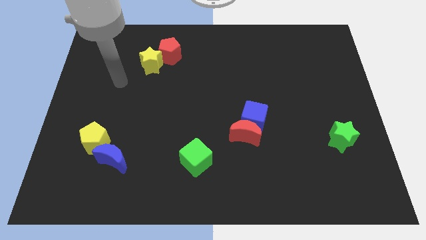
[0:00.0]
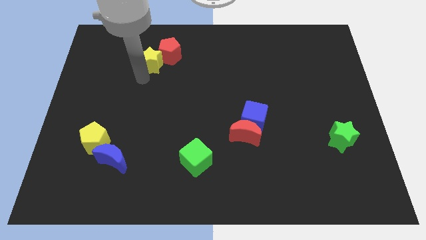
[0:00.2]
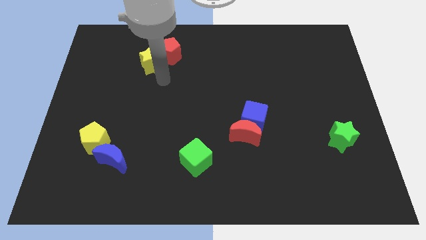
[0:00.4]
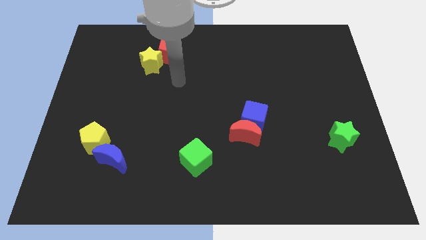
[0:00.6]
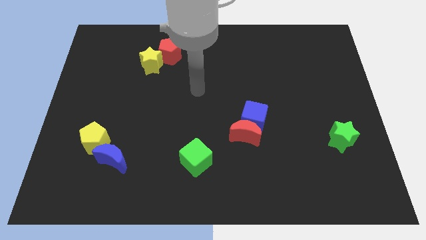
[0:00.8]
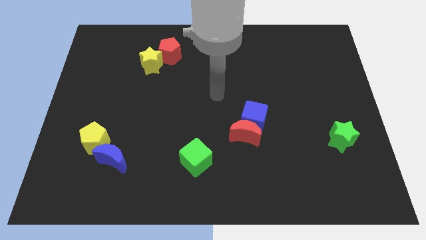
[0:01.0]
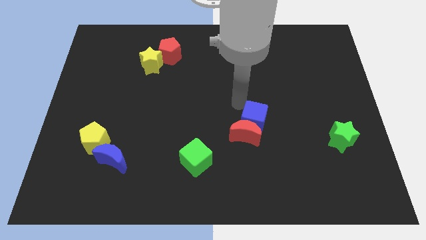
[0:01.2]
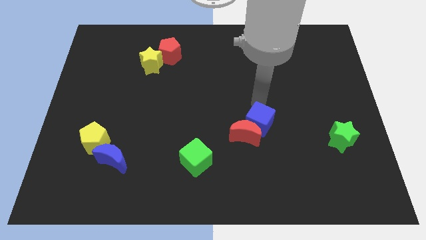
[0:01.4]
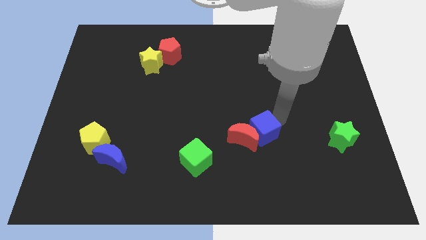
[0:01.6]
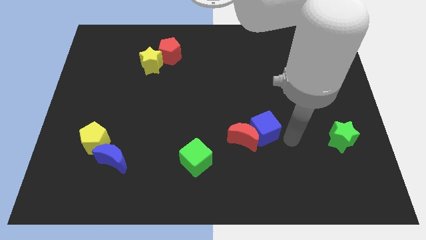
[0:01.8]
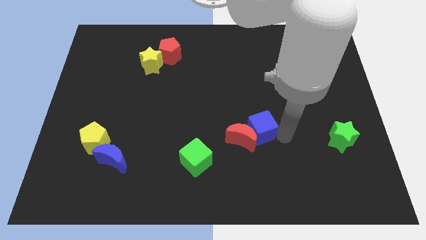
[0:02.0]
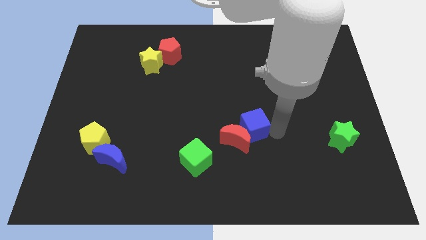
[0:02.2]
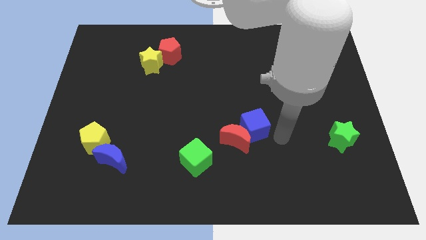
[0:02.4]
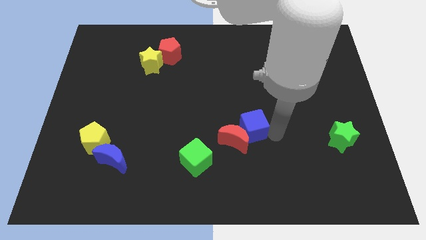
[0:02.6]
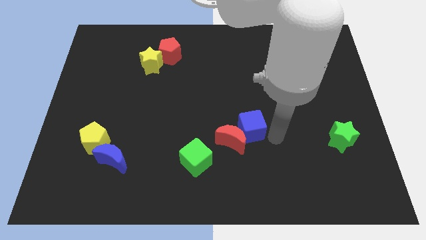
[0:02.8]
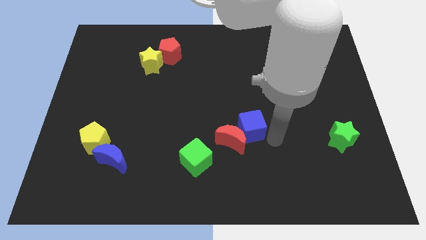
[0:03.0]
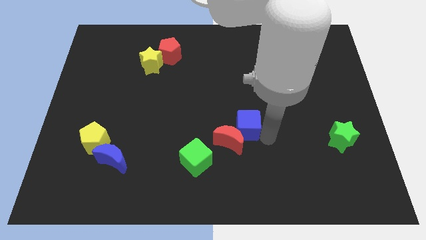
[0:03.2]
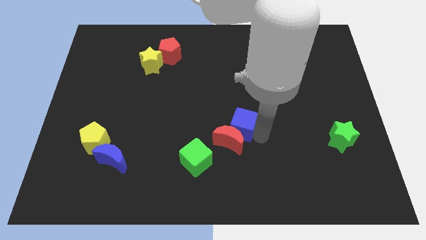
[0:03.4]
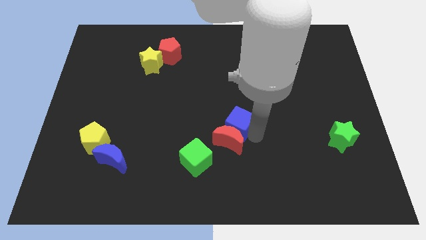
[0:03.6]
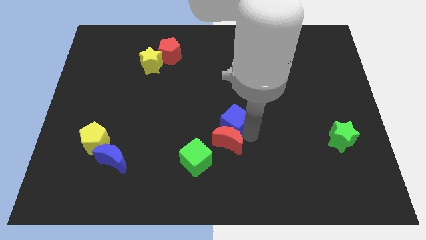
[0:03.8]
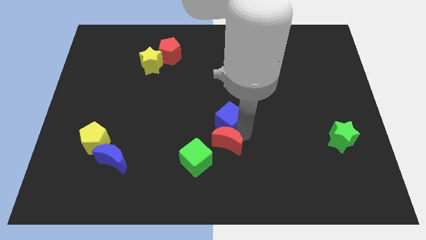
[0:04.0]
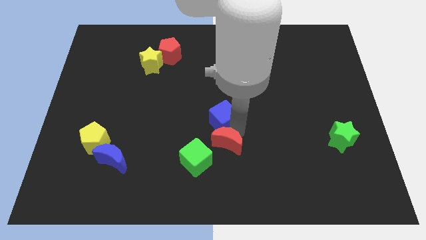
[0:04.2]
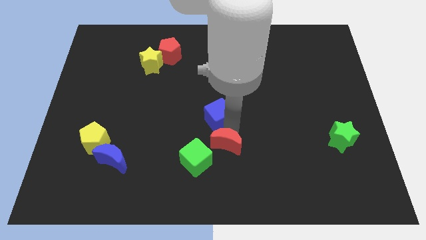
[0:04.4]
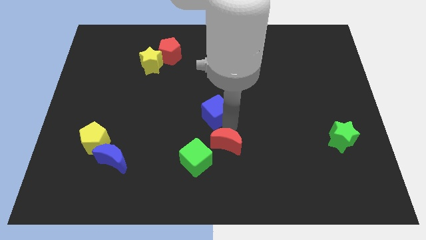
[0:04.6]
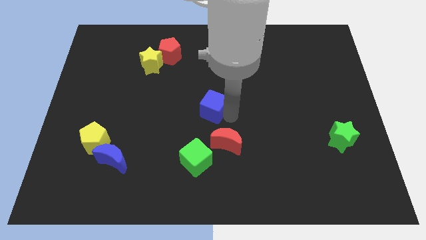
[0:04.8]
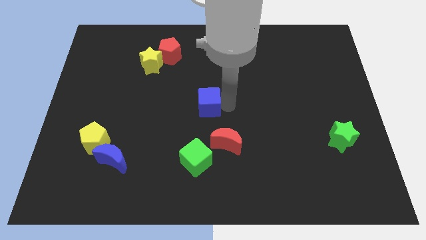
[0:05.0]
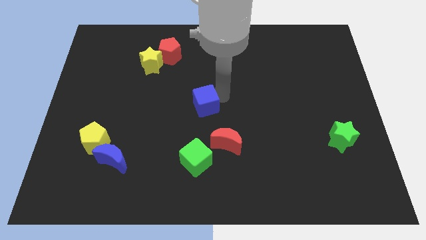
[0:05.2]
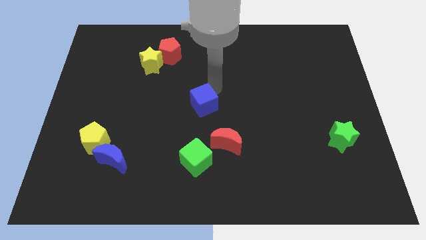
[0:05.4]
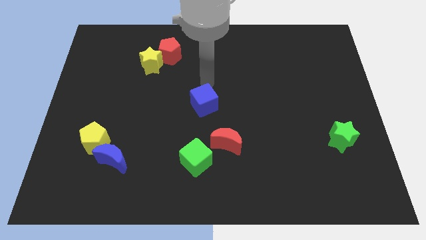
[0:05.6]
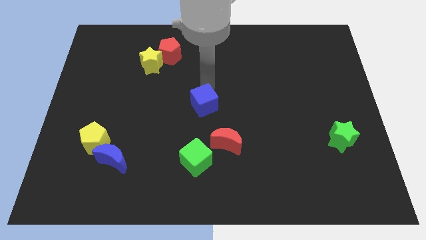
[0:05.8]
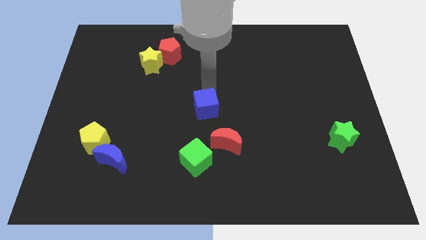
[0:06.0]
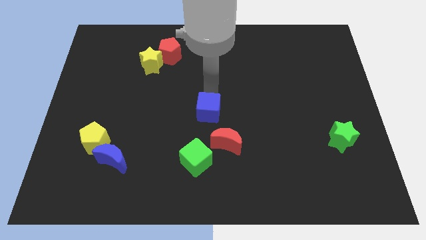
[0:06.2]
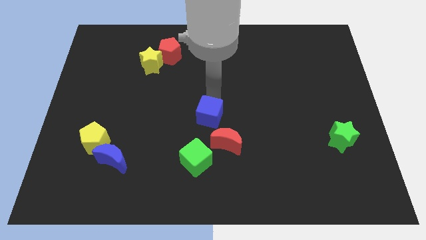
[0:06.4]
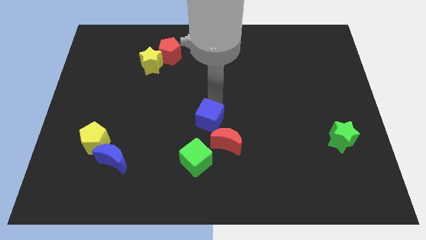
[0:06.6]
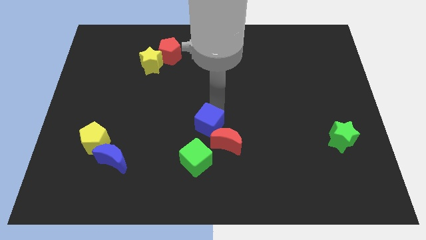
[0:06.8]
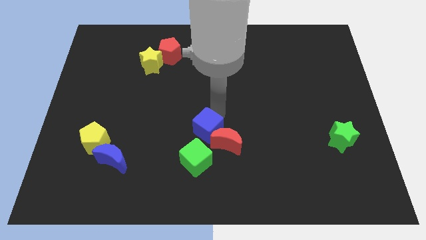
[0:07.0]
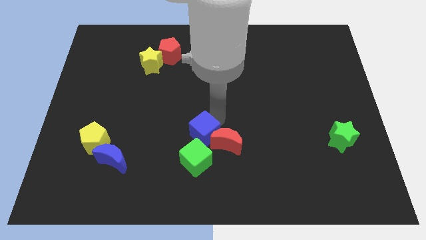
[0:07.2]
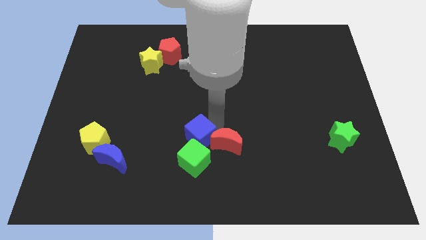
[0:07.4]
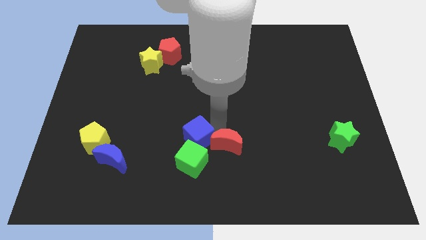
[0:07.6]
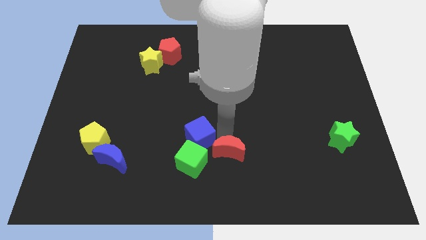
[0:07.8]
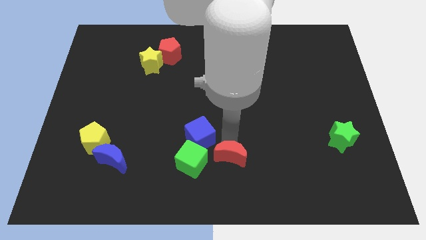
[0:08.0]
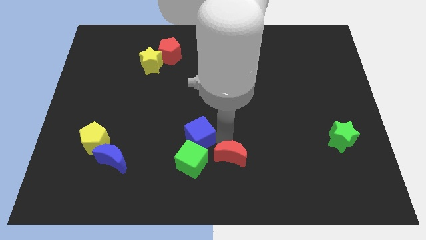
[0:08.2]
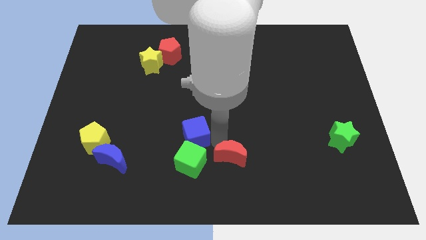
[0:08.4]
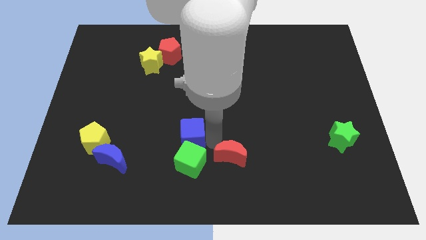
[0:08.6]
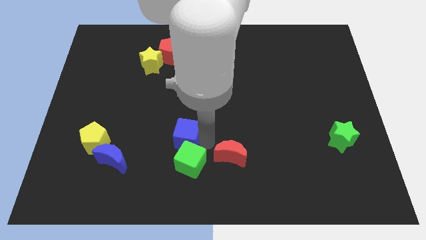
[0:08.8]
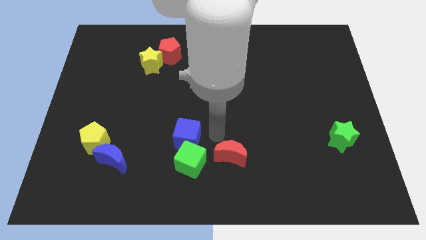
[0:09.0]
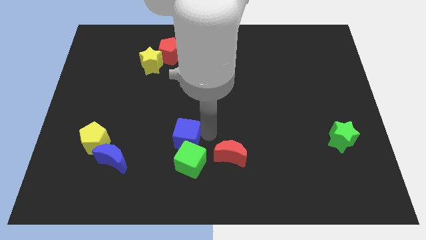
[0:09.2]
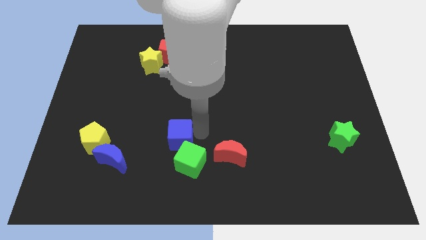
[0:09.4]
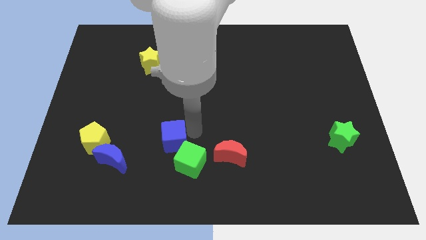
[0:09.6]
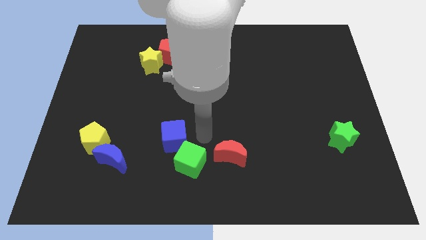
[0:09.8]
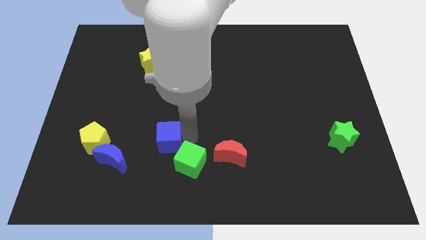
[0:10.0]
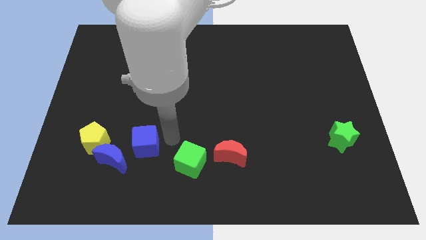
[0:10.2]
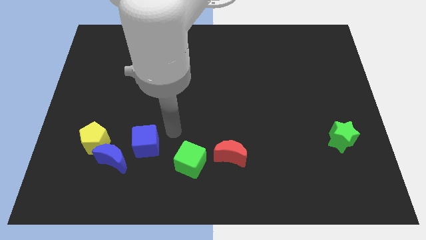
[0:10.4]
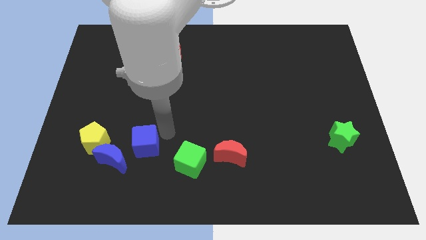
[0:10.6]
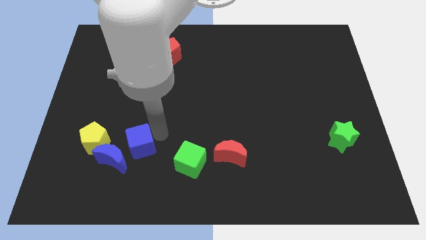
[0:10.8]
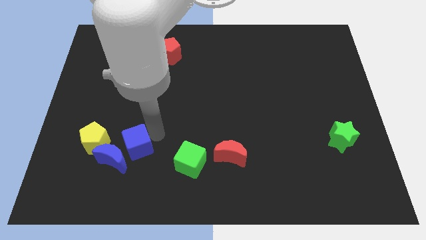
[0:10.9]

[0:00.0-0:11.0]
move the blue cube next to the blue moon

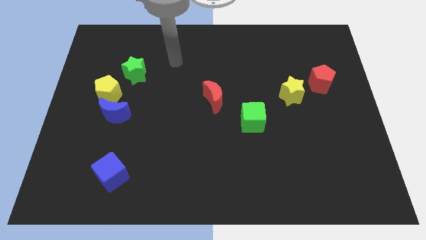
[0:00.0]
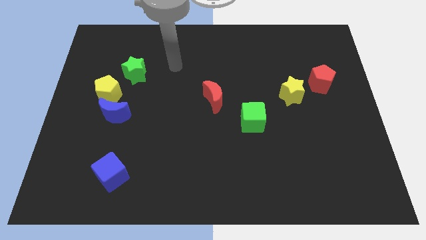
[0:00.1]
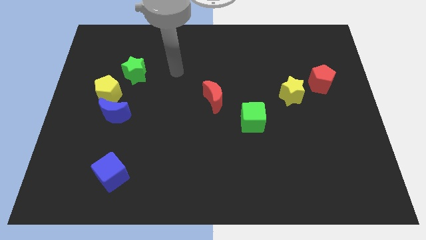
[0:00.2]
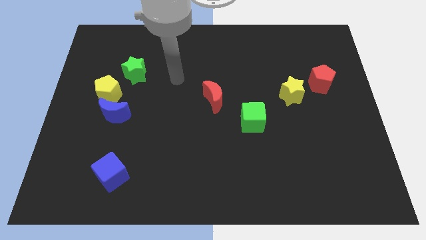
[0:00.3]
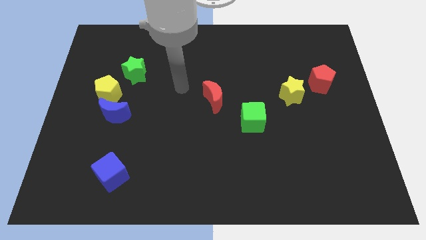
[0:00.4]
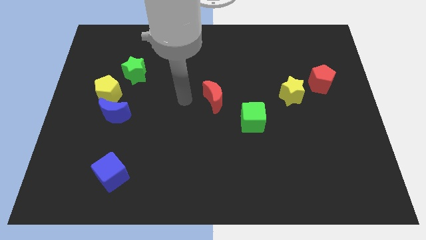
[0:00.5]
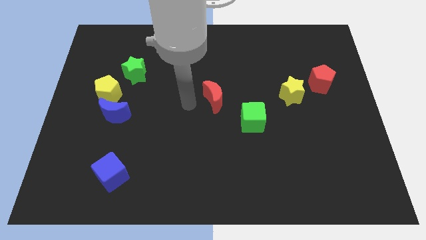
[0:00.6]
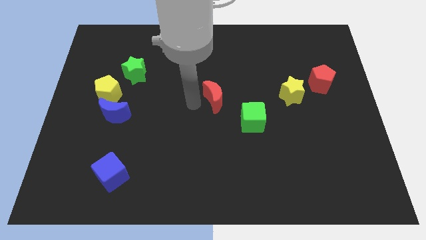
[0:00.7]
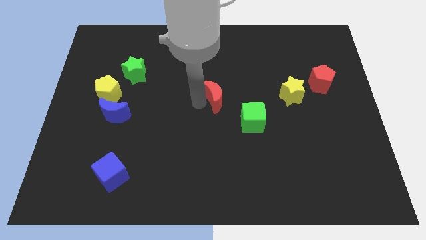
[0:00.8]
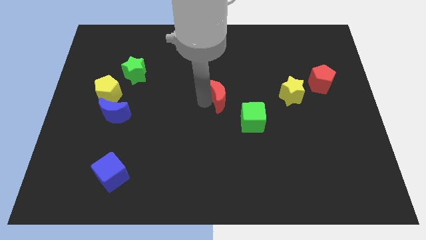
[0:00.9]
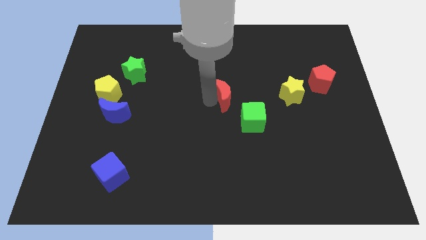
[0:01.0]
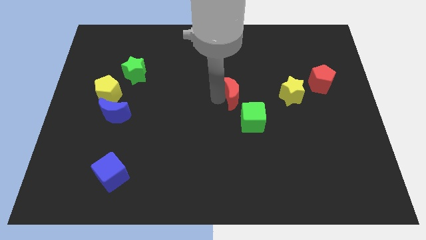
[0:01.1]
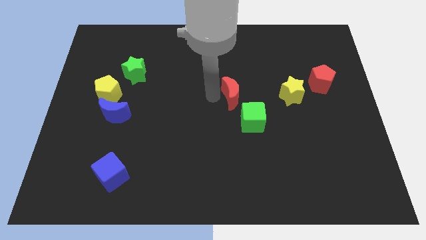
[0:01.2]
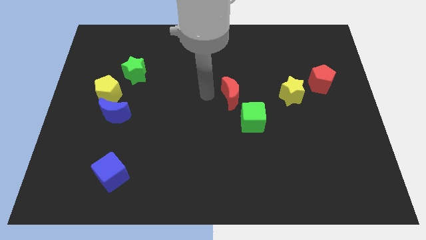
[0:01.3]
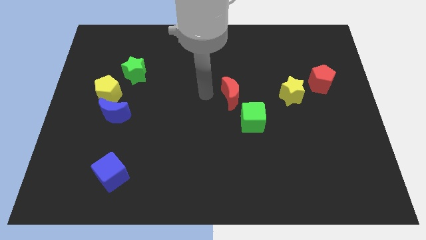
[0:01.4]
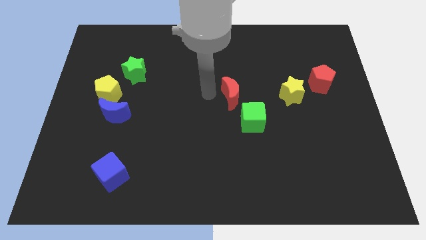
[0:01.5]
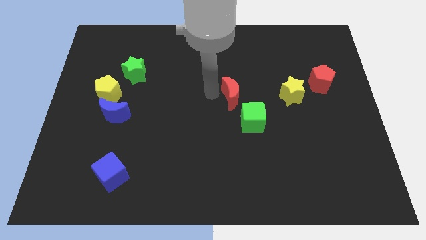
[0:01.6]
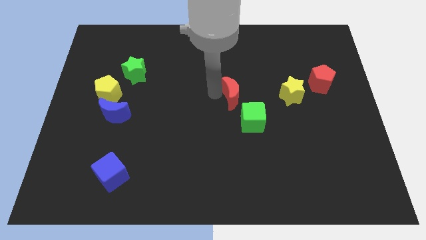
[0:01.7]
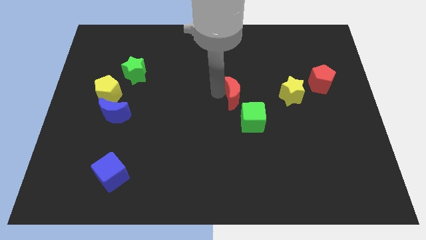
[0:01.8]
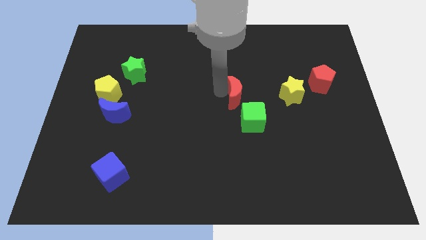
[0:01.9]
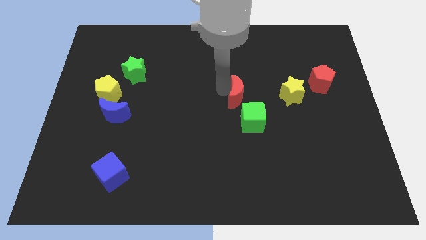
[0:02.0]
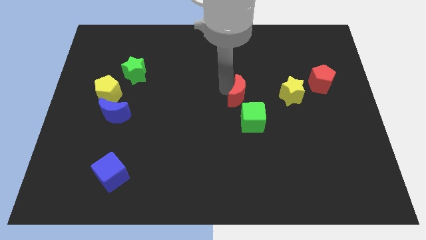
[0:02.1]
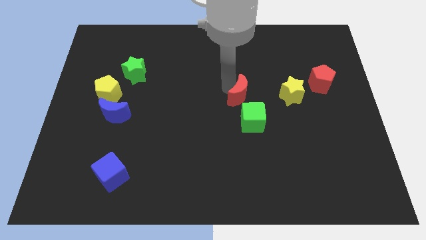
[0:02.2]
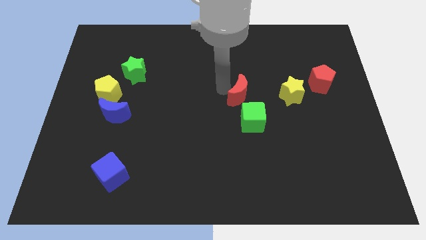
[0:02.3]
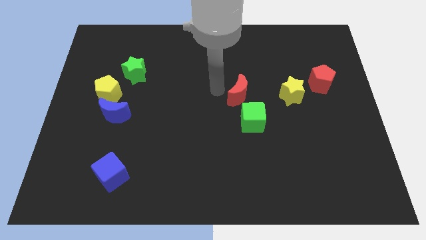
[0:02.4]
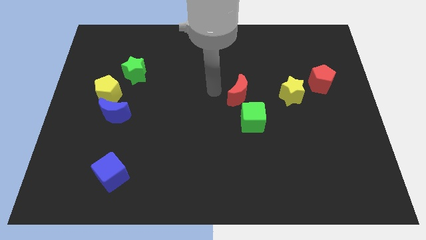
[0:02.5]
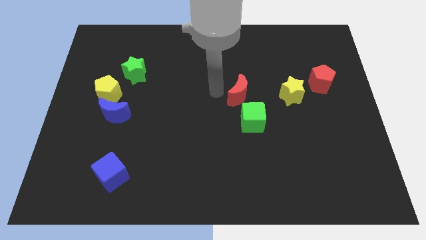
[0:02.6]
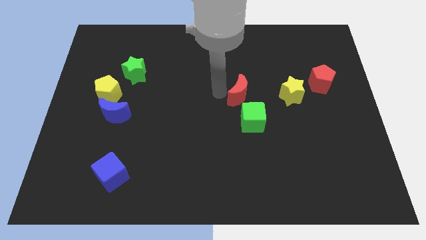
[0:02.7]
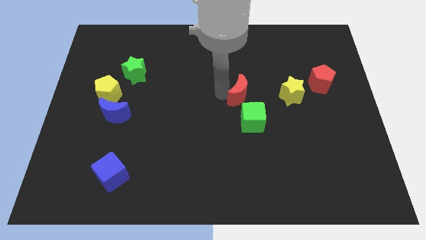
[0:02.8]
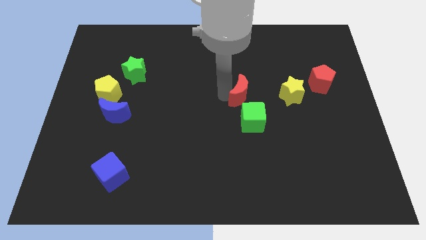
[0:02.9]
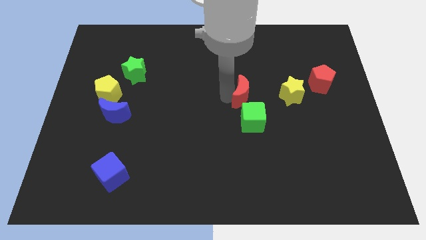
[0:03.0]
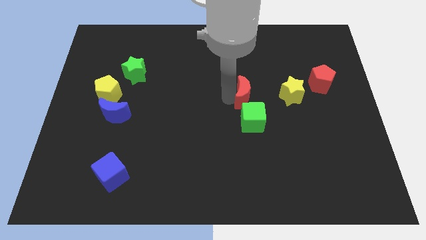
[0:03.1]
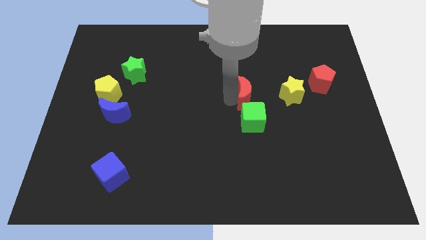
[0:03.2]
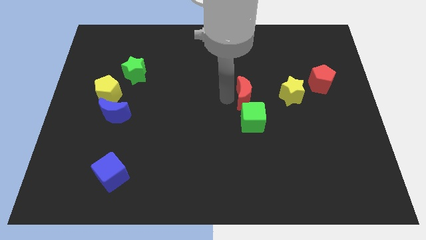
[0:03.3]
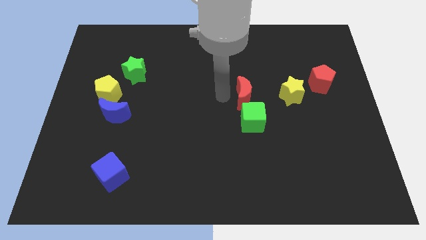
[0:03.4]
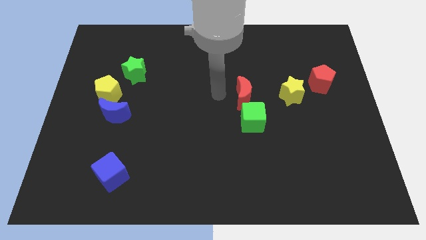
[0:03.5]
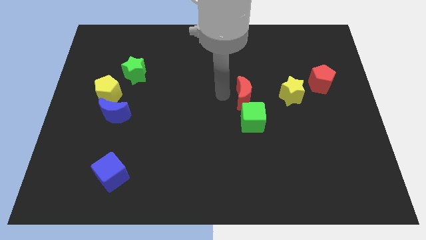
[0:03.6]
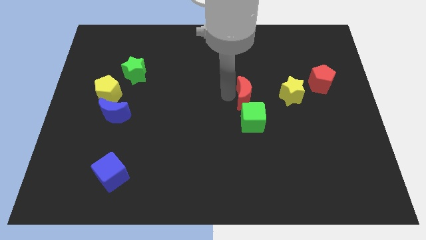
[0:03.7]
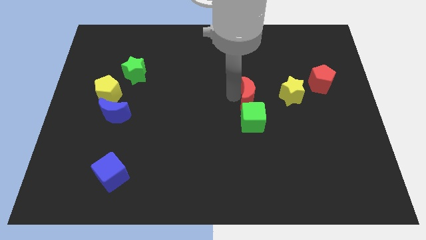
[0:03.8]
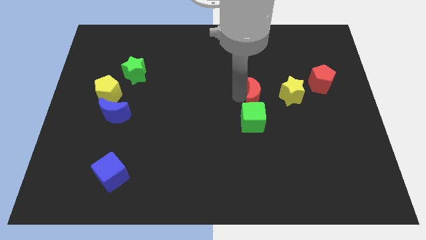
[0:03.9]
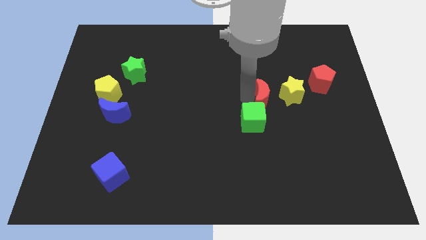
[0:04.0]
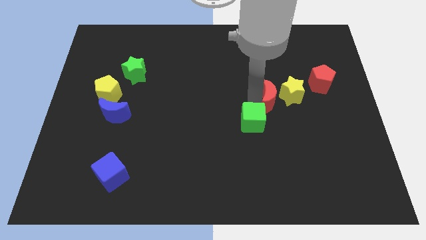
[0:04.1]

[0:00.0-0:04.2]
slide the red moon to the yellow star
